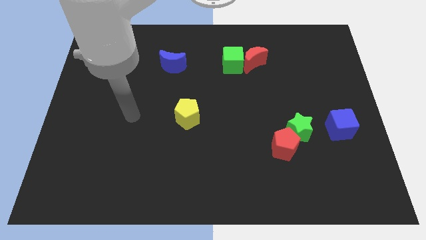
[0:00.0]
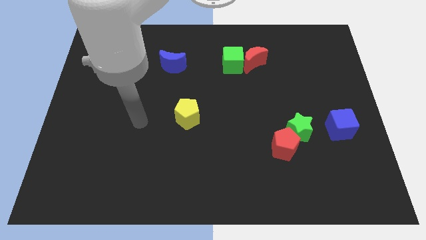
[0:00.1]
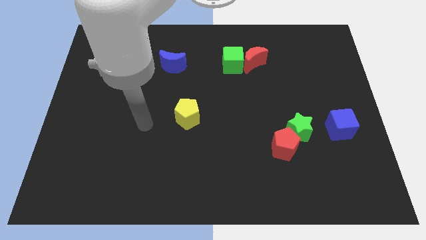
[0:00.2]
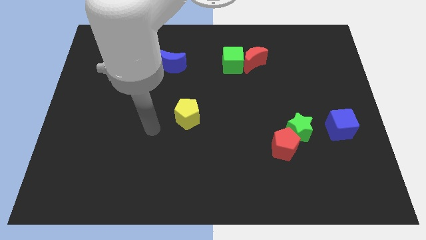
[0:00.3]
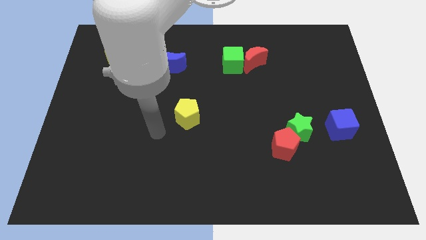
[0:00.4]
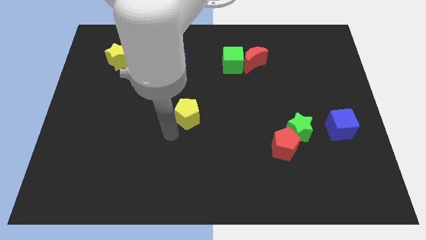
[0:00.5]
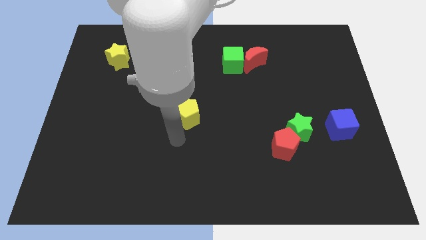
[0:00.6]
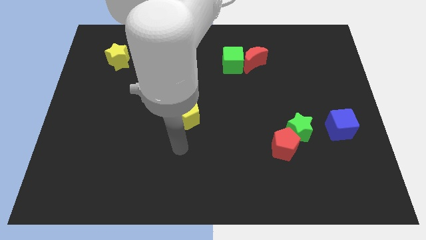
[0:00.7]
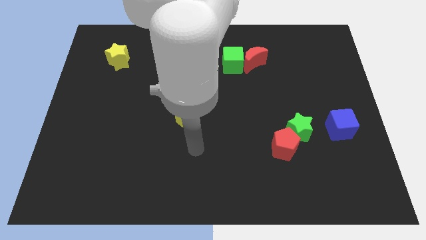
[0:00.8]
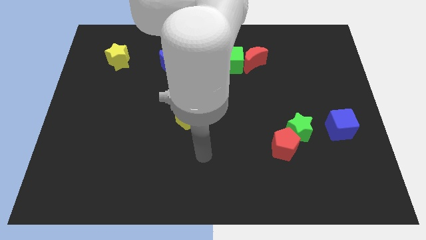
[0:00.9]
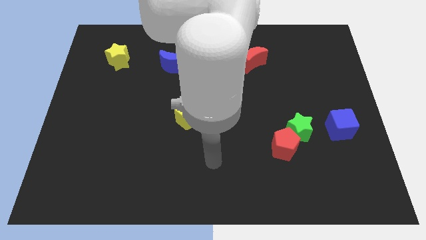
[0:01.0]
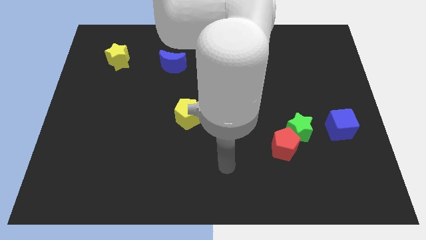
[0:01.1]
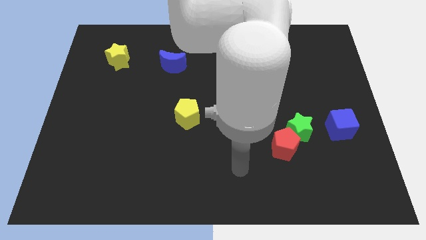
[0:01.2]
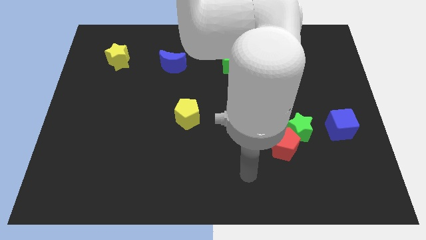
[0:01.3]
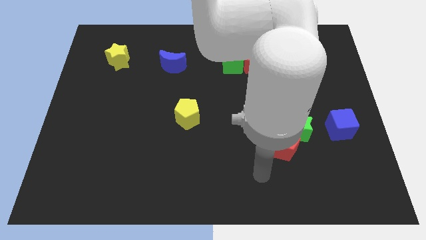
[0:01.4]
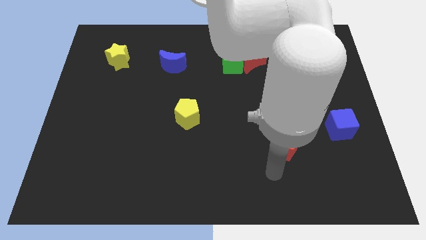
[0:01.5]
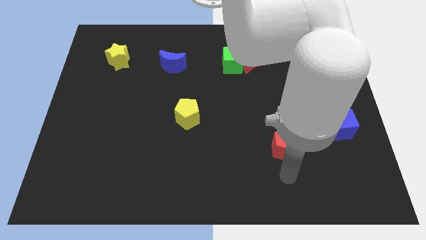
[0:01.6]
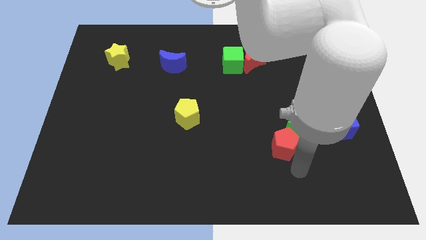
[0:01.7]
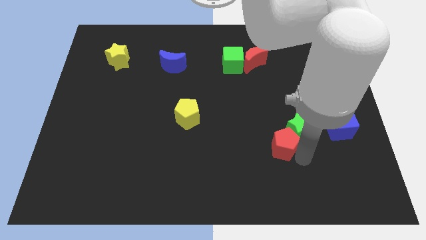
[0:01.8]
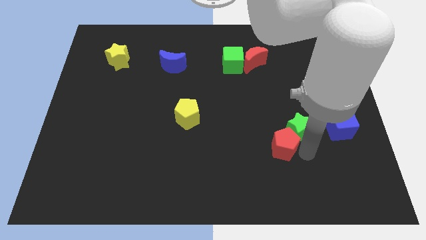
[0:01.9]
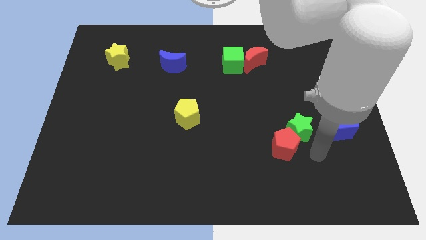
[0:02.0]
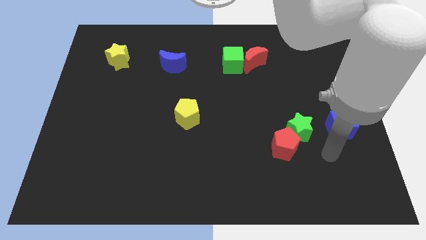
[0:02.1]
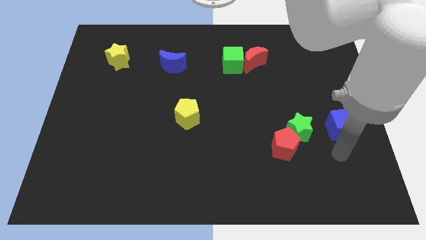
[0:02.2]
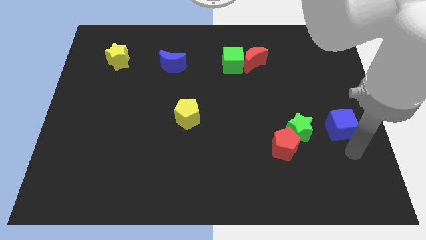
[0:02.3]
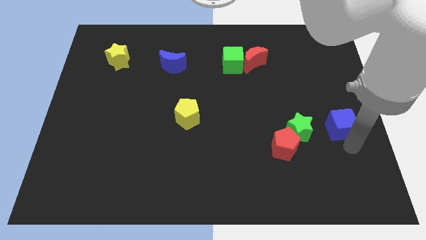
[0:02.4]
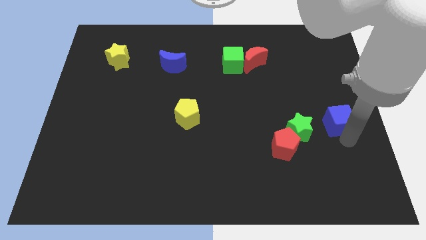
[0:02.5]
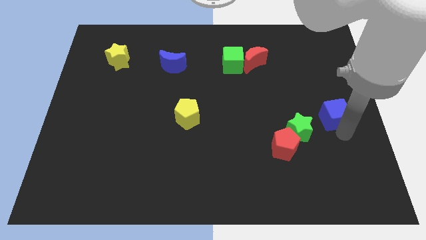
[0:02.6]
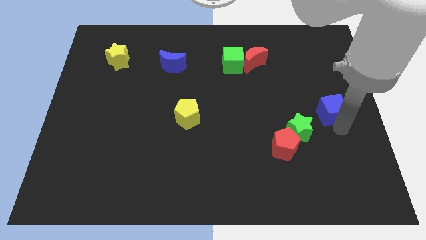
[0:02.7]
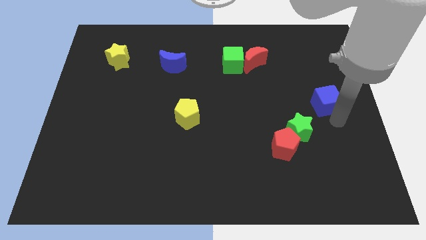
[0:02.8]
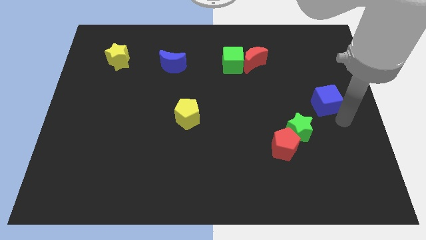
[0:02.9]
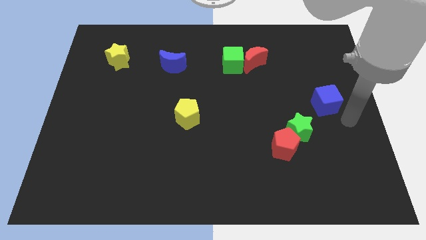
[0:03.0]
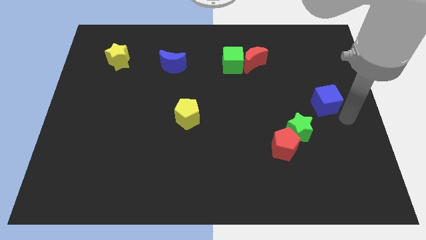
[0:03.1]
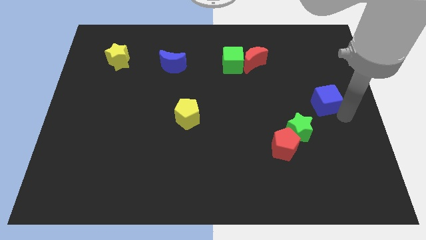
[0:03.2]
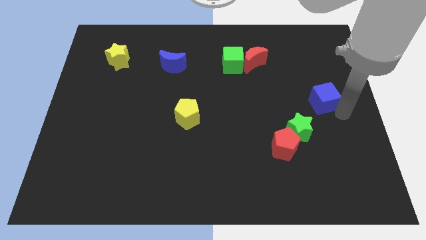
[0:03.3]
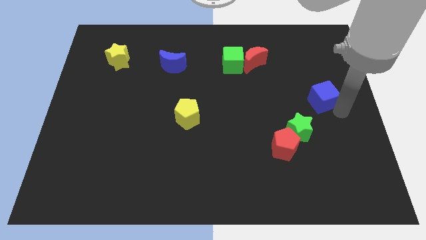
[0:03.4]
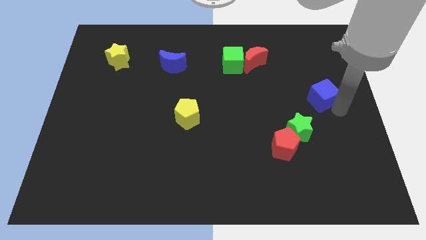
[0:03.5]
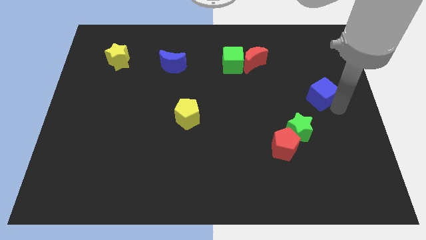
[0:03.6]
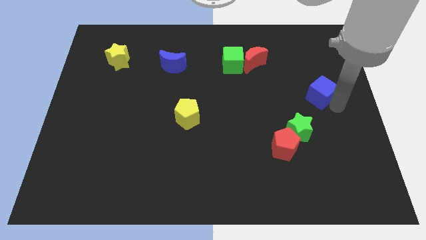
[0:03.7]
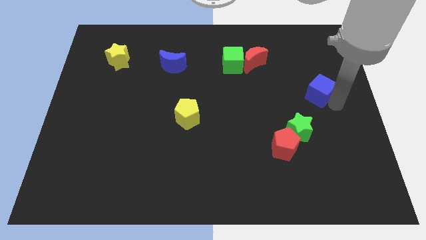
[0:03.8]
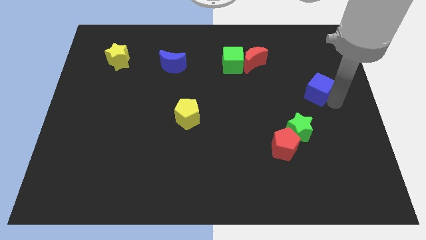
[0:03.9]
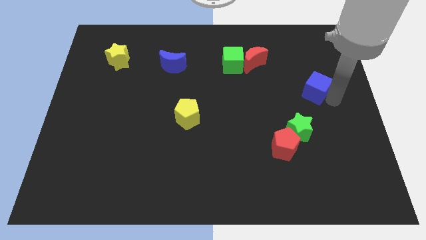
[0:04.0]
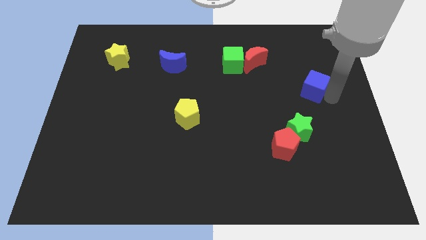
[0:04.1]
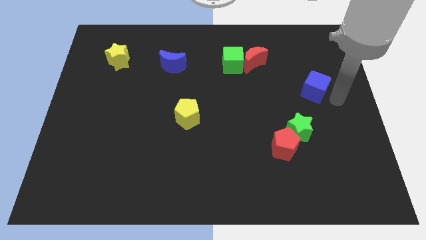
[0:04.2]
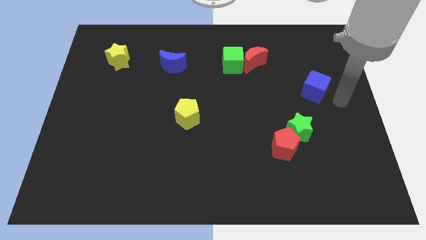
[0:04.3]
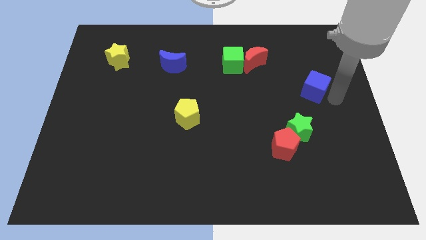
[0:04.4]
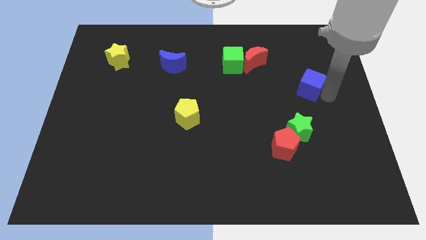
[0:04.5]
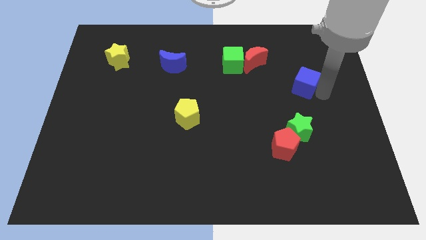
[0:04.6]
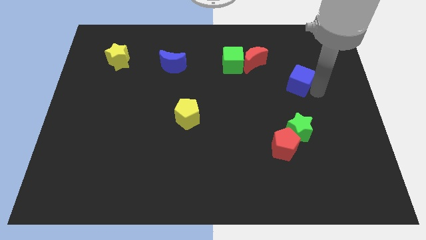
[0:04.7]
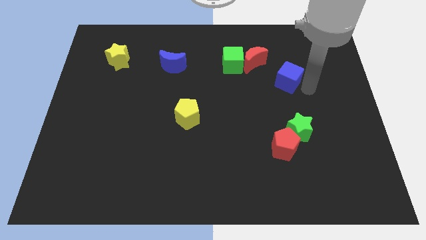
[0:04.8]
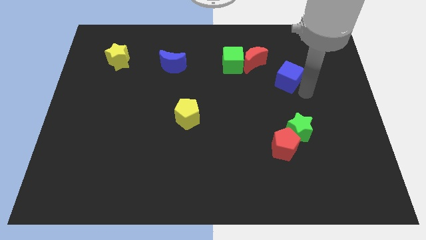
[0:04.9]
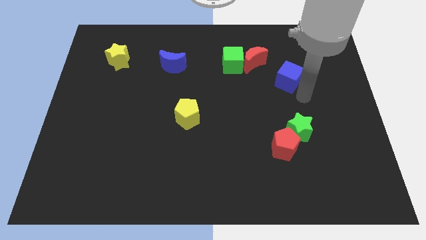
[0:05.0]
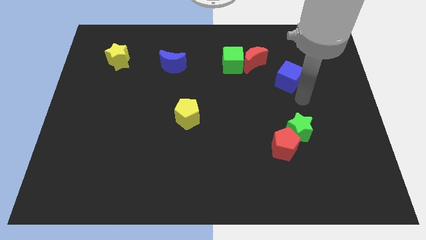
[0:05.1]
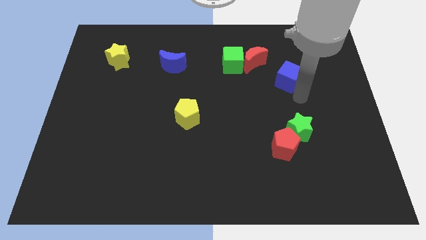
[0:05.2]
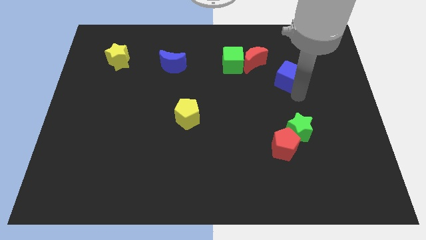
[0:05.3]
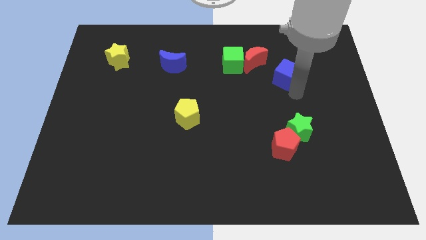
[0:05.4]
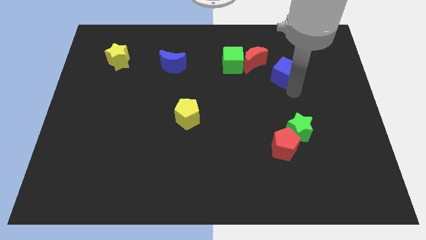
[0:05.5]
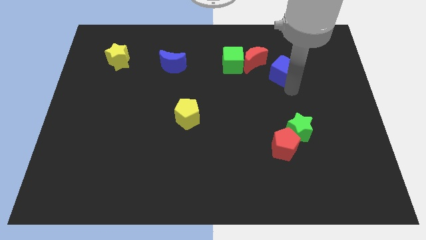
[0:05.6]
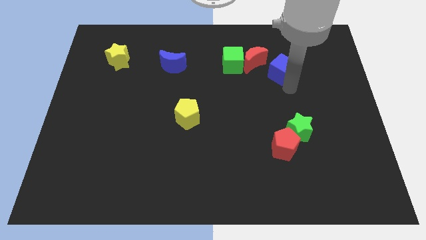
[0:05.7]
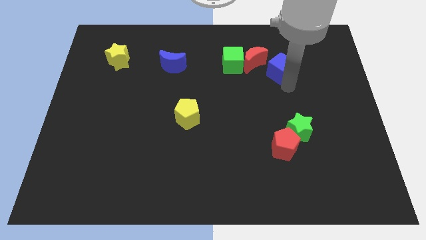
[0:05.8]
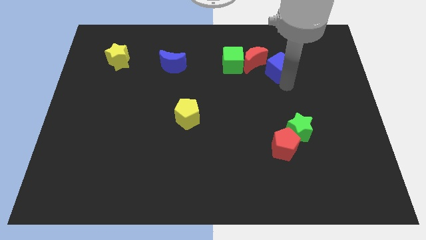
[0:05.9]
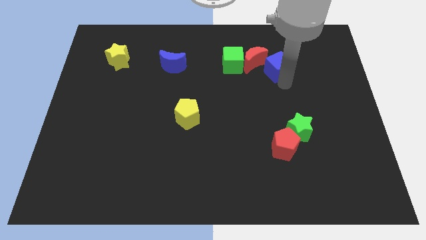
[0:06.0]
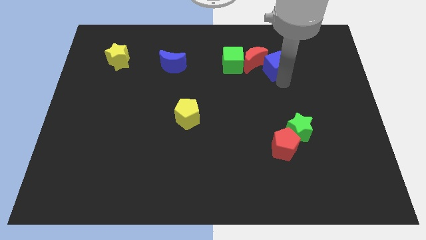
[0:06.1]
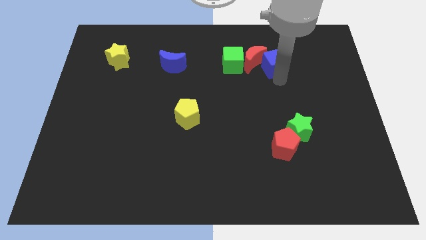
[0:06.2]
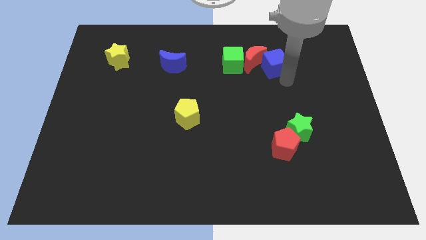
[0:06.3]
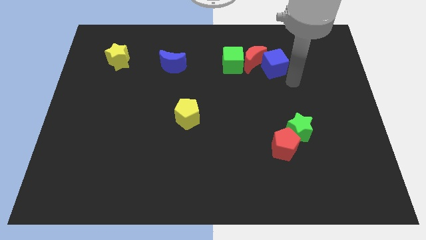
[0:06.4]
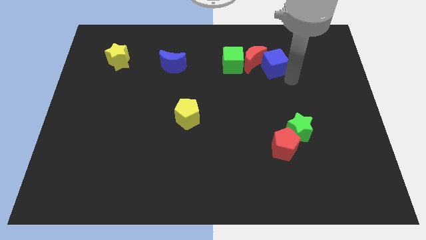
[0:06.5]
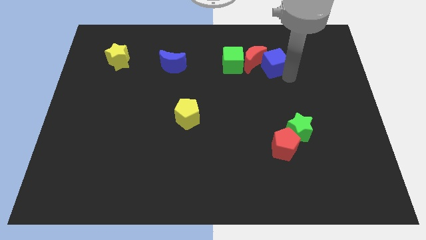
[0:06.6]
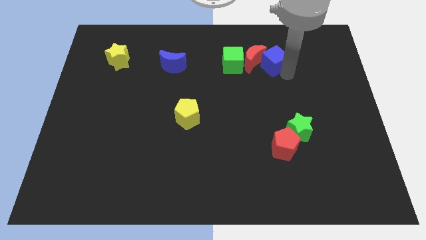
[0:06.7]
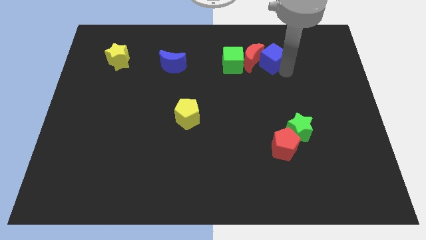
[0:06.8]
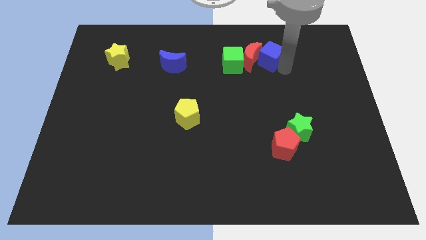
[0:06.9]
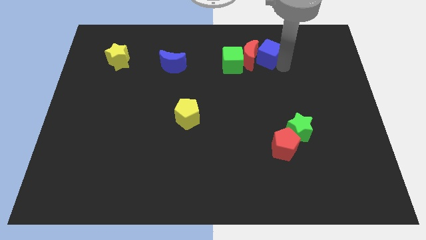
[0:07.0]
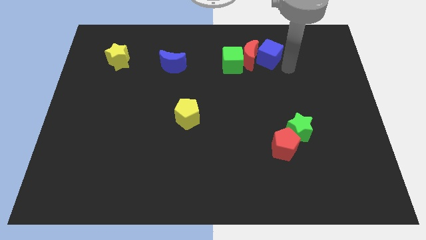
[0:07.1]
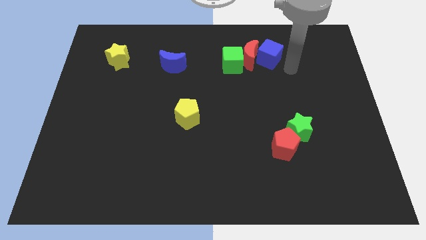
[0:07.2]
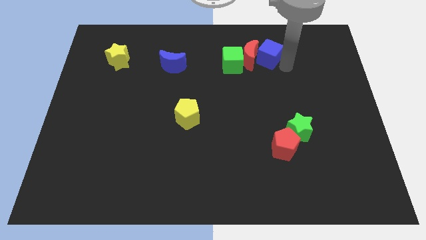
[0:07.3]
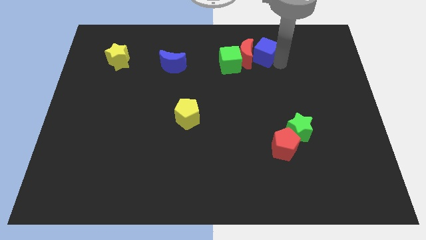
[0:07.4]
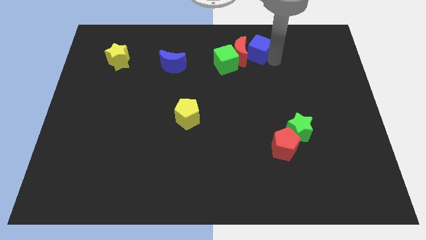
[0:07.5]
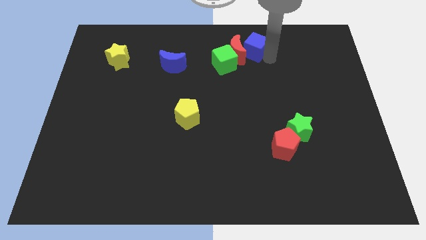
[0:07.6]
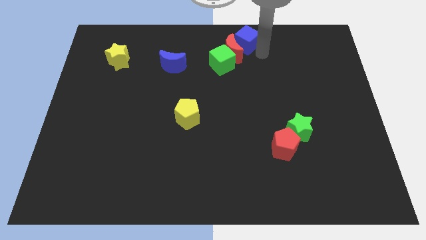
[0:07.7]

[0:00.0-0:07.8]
push the blue cube to the towards your base
